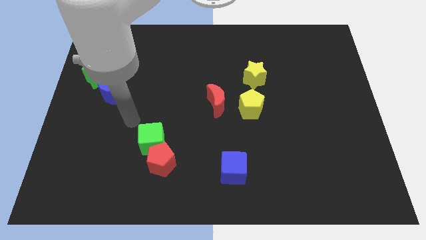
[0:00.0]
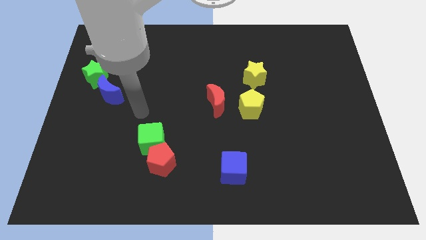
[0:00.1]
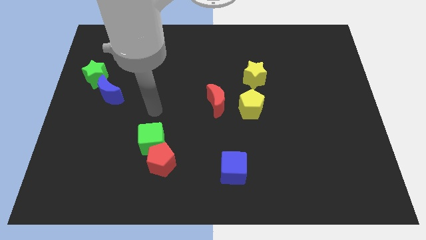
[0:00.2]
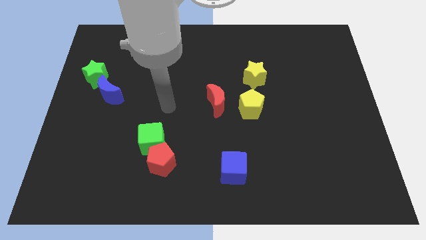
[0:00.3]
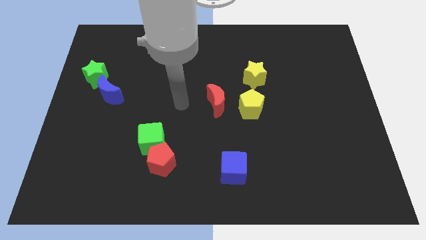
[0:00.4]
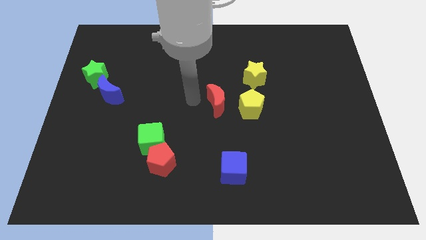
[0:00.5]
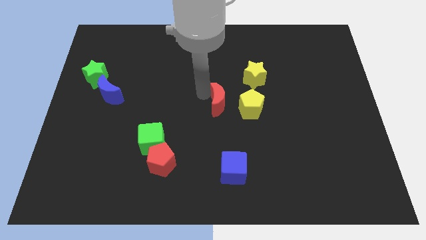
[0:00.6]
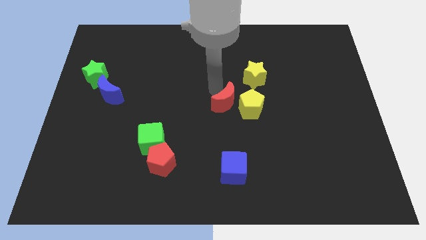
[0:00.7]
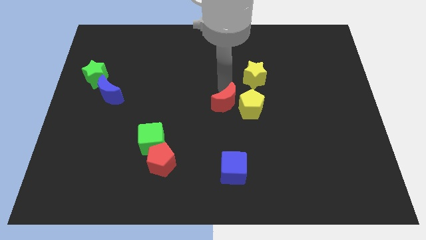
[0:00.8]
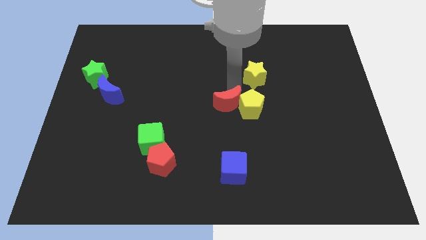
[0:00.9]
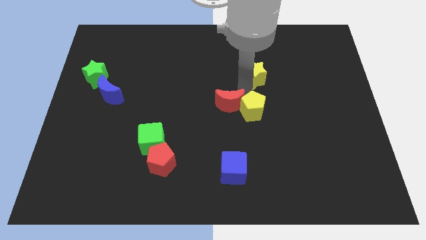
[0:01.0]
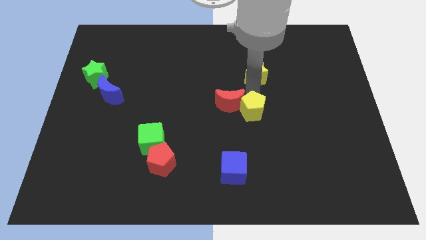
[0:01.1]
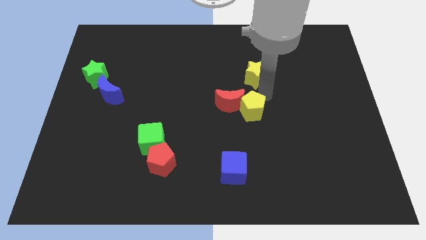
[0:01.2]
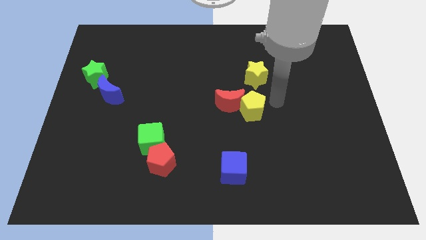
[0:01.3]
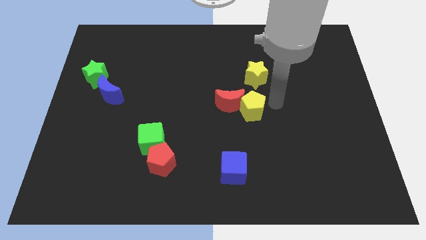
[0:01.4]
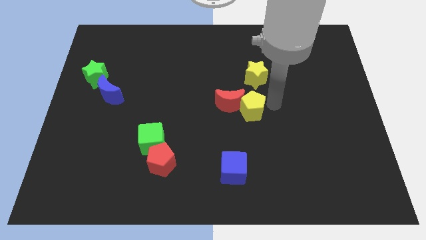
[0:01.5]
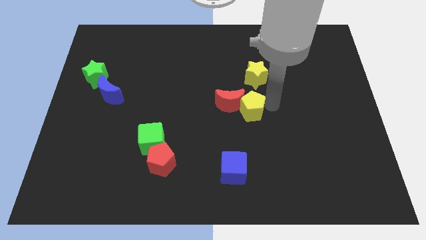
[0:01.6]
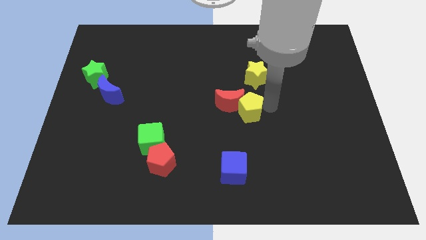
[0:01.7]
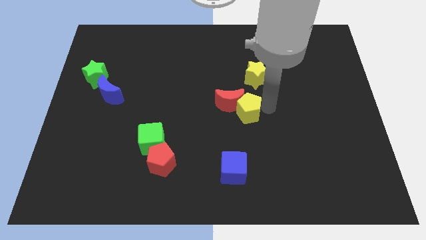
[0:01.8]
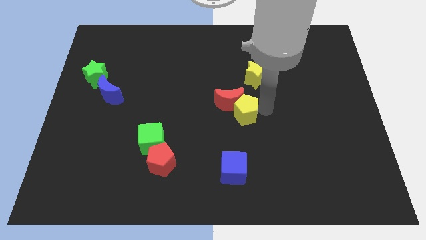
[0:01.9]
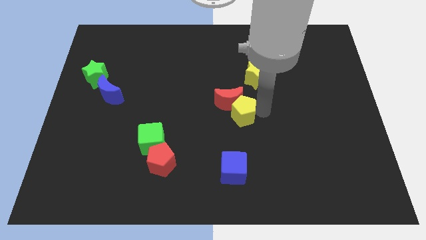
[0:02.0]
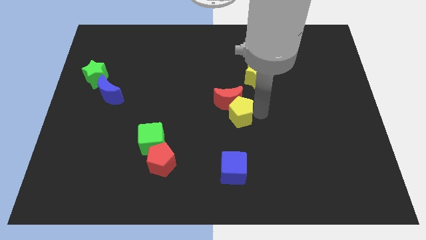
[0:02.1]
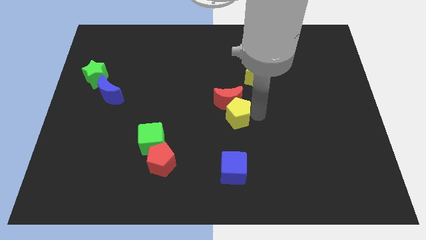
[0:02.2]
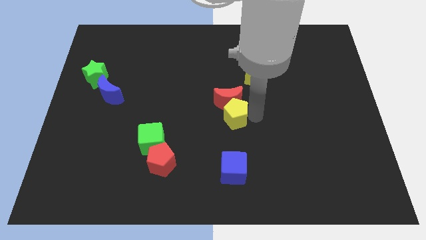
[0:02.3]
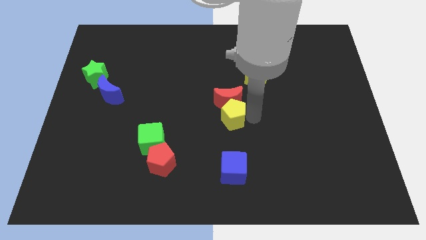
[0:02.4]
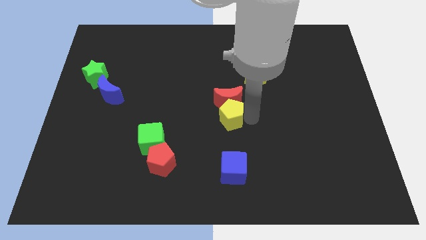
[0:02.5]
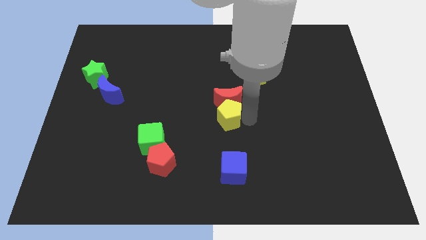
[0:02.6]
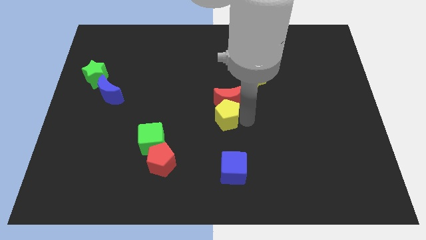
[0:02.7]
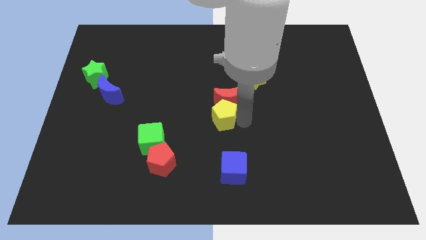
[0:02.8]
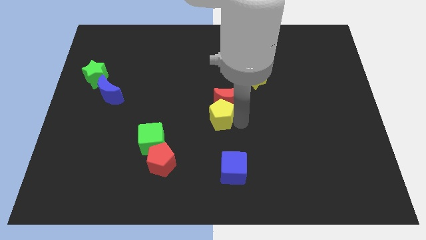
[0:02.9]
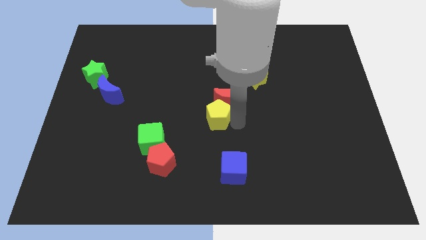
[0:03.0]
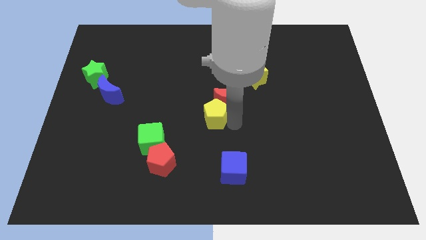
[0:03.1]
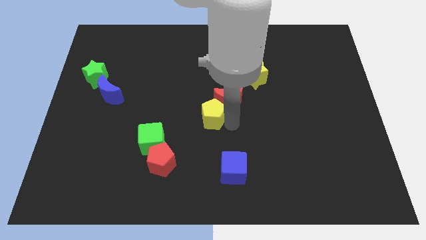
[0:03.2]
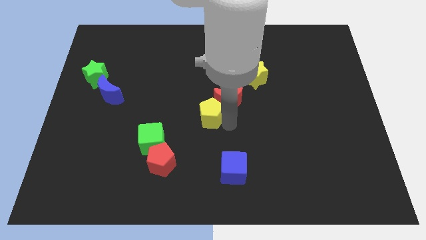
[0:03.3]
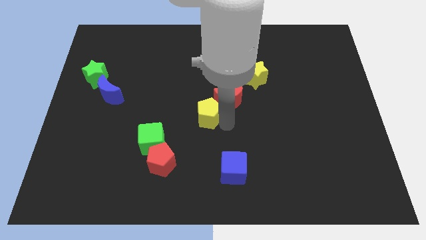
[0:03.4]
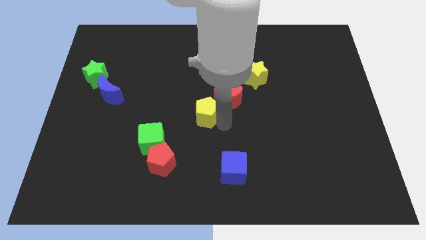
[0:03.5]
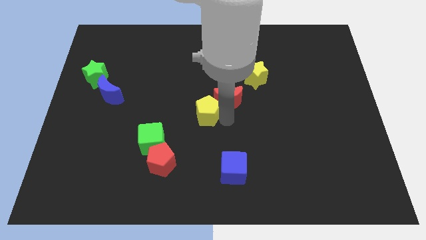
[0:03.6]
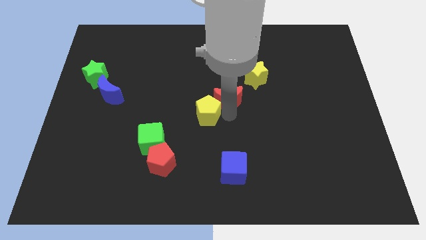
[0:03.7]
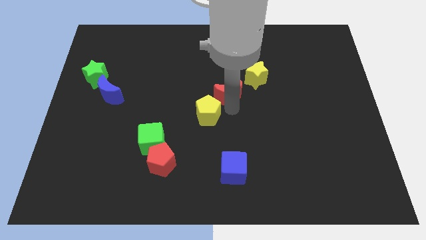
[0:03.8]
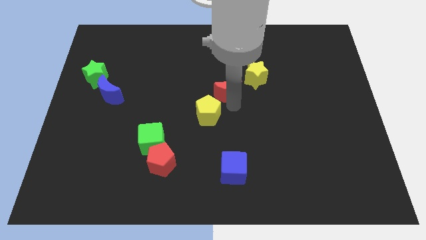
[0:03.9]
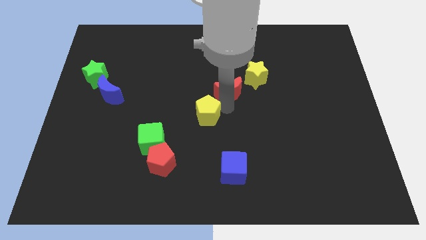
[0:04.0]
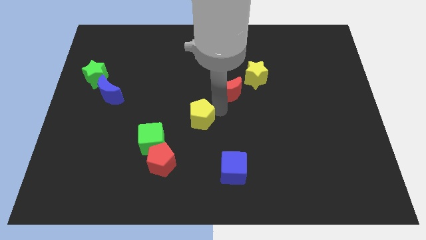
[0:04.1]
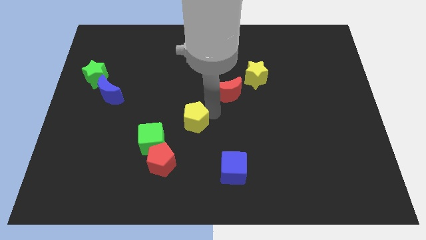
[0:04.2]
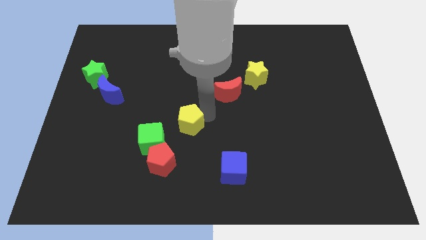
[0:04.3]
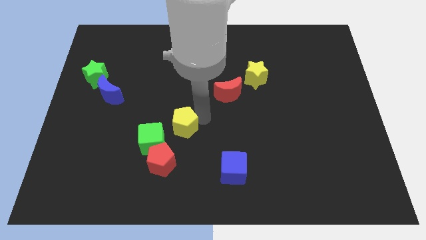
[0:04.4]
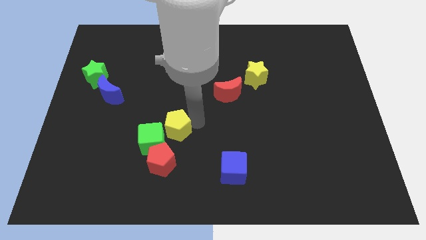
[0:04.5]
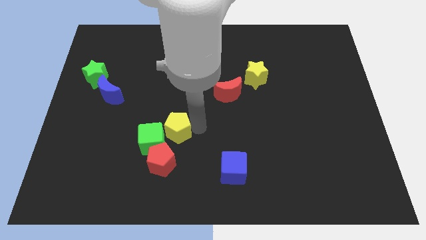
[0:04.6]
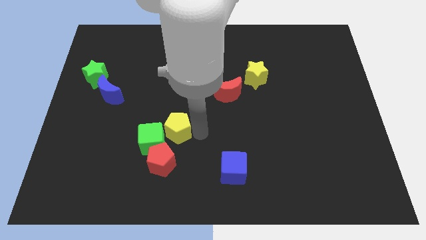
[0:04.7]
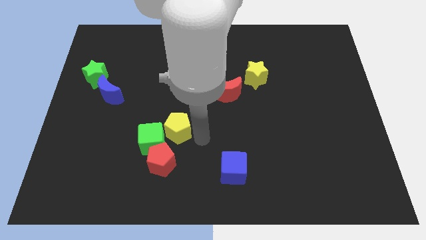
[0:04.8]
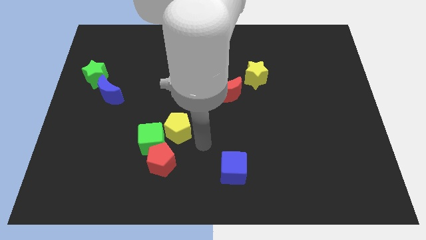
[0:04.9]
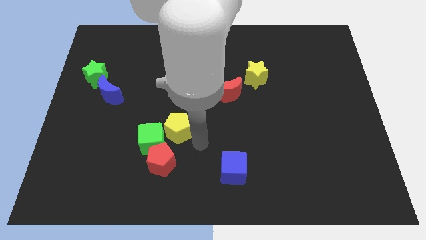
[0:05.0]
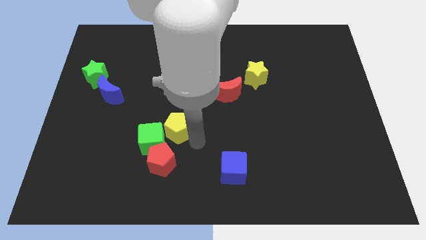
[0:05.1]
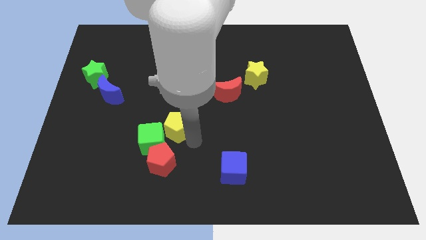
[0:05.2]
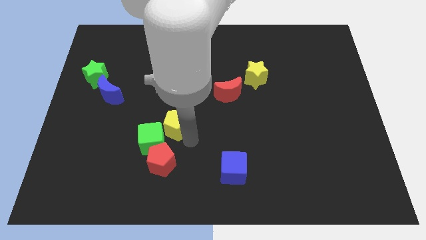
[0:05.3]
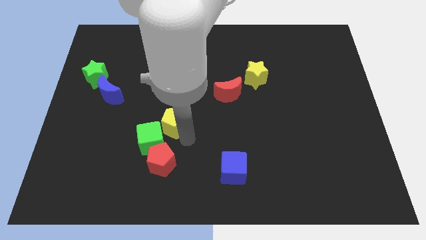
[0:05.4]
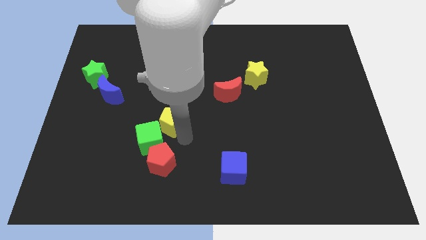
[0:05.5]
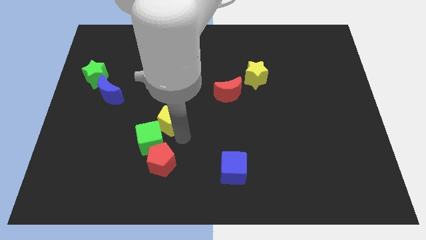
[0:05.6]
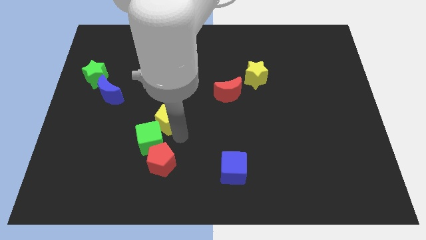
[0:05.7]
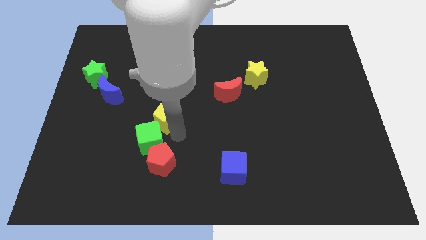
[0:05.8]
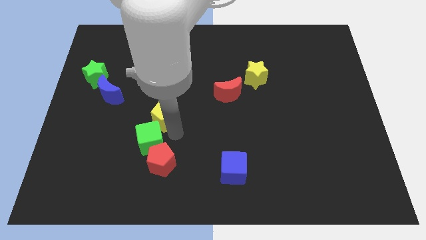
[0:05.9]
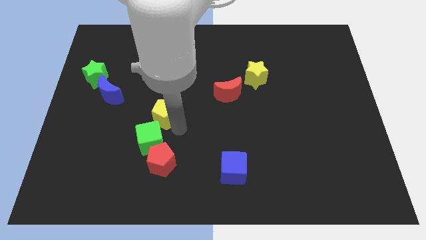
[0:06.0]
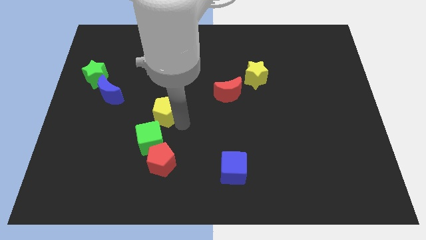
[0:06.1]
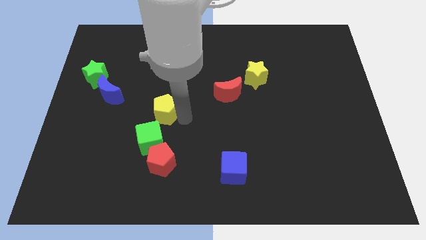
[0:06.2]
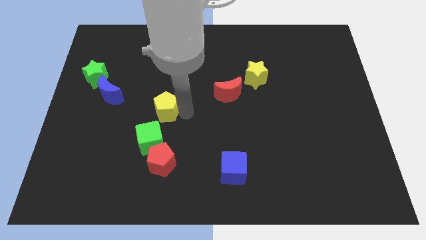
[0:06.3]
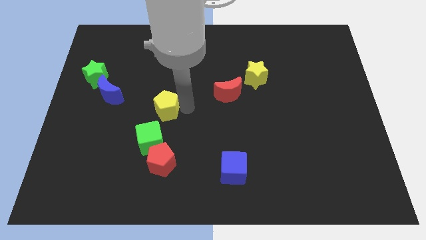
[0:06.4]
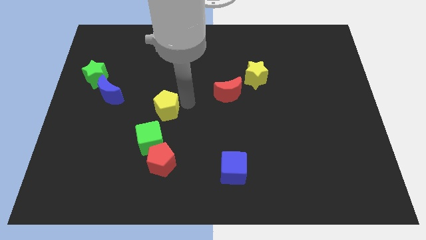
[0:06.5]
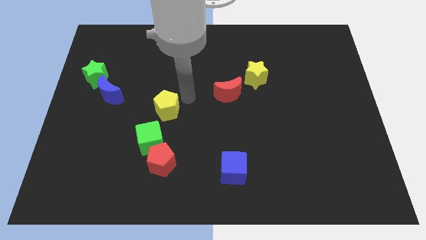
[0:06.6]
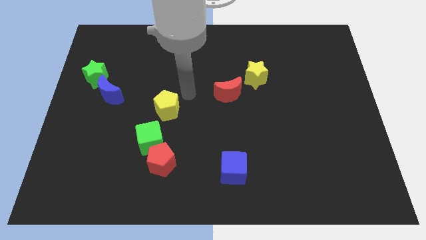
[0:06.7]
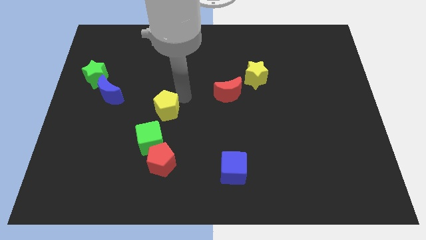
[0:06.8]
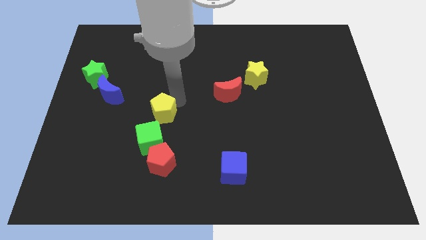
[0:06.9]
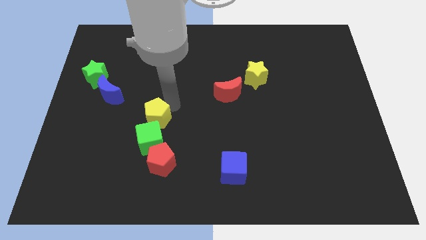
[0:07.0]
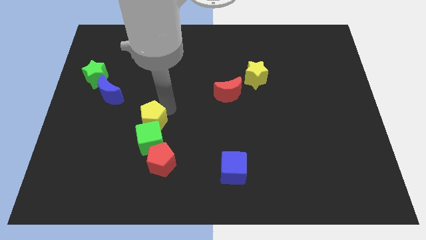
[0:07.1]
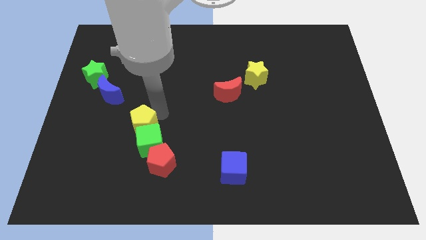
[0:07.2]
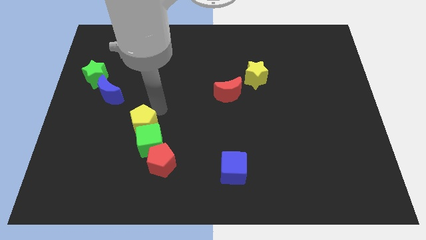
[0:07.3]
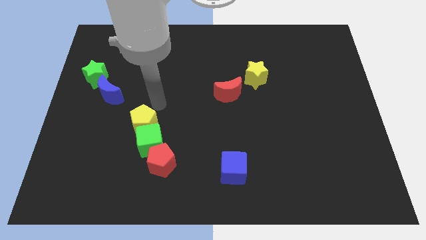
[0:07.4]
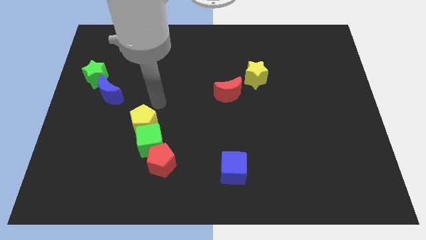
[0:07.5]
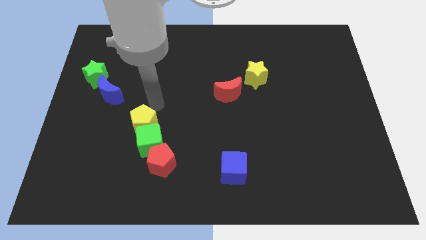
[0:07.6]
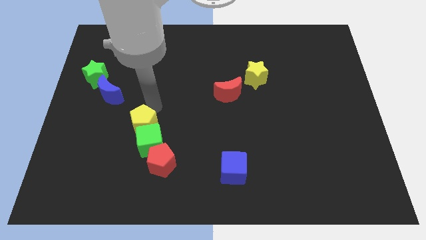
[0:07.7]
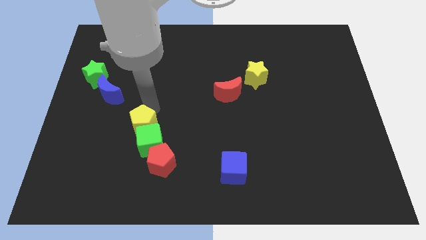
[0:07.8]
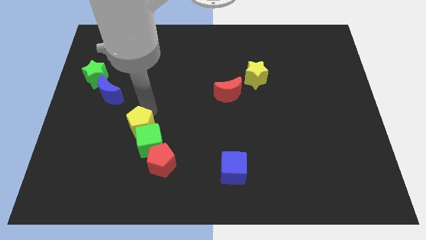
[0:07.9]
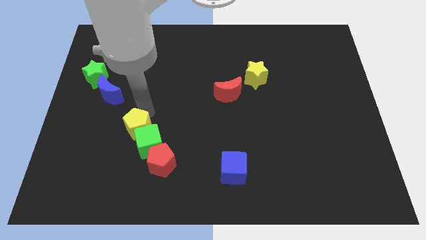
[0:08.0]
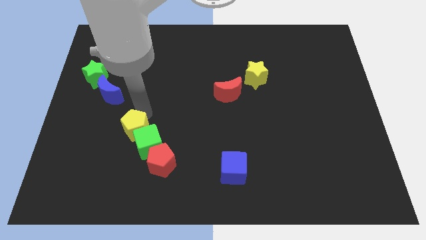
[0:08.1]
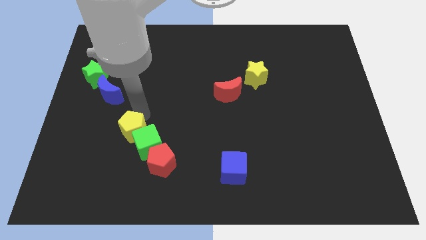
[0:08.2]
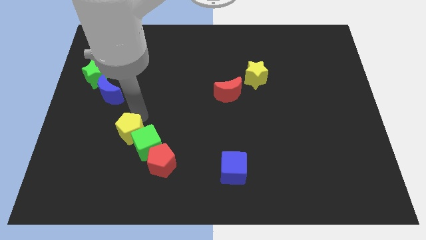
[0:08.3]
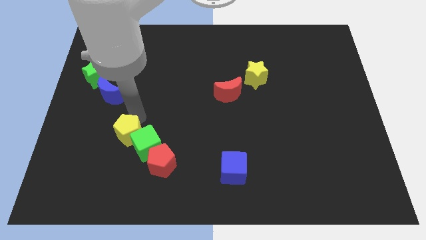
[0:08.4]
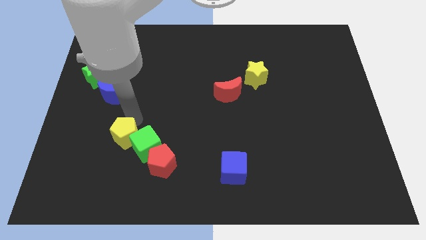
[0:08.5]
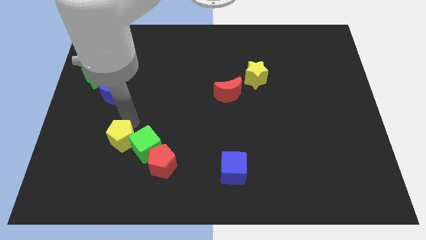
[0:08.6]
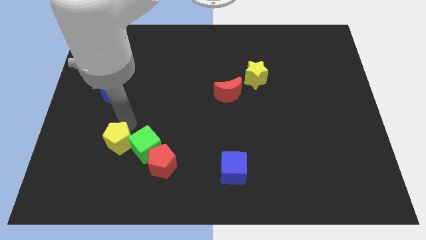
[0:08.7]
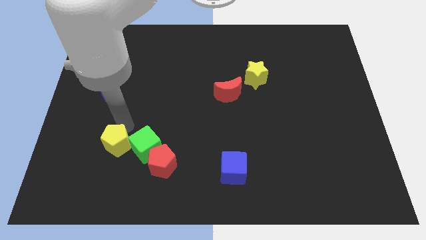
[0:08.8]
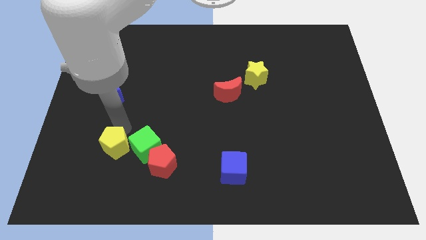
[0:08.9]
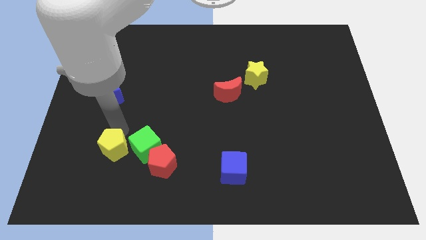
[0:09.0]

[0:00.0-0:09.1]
put the yellow pentagon to the bottom left of the green cube
